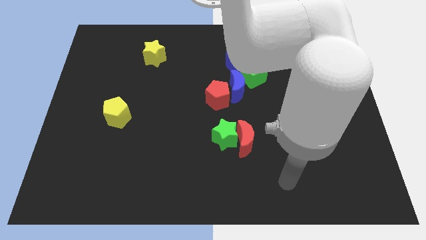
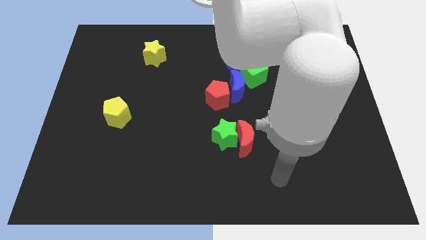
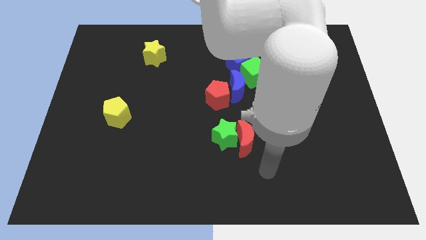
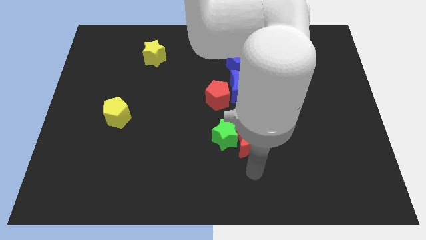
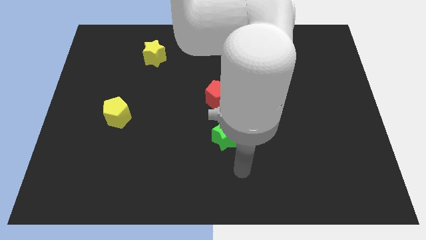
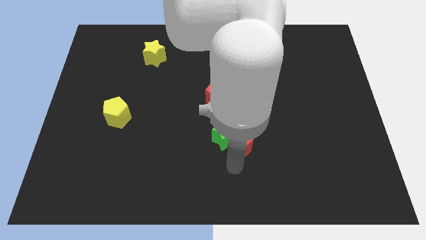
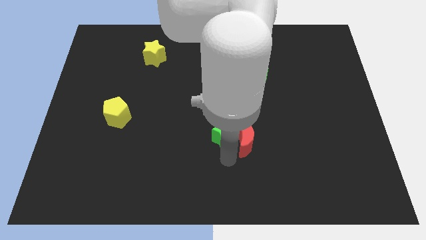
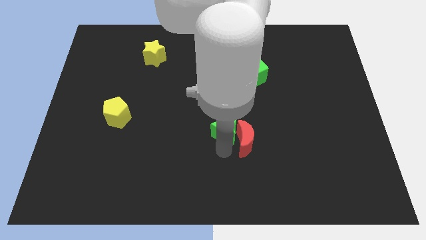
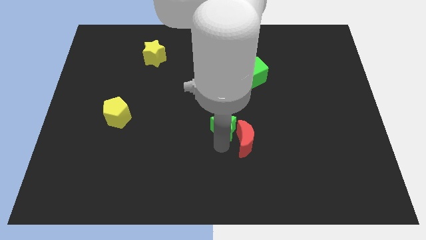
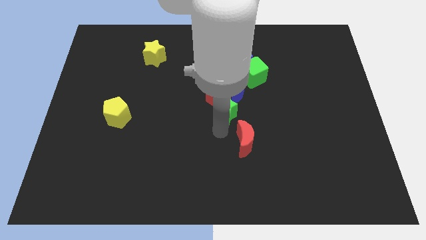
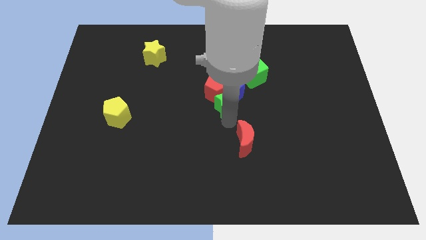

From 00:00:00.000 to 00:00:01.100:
pull the red moon apart from the green star

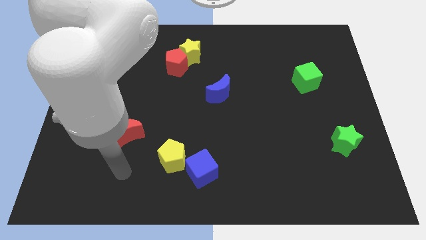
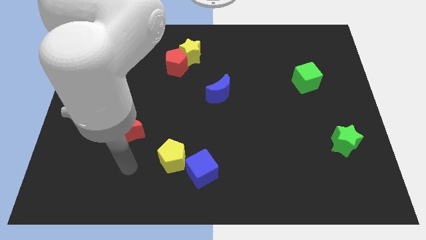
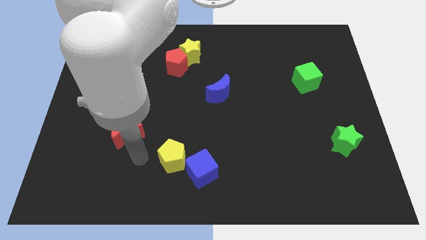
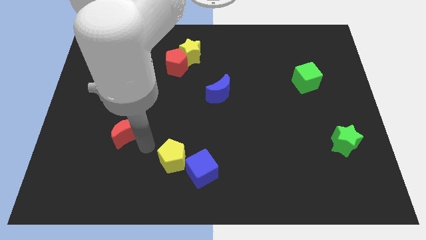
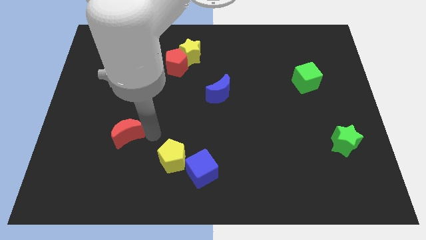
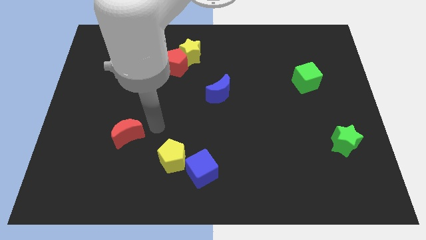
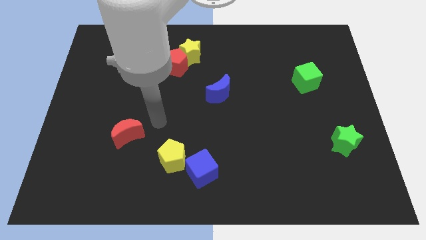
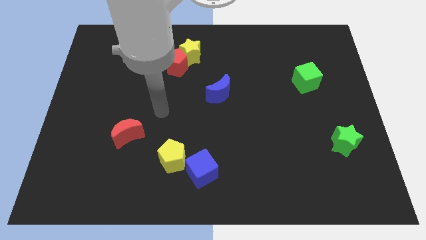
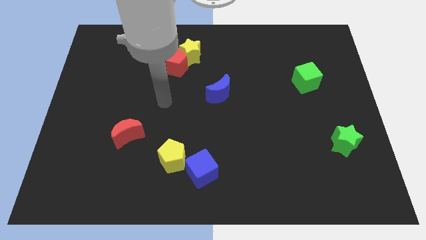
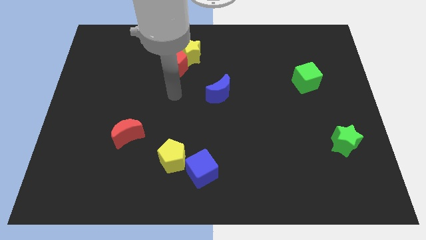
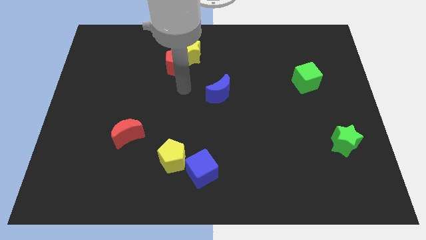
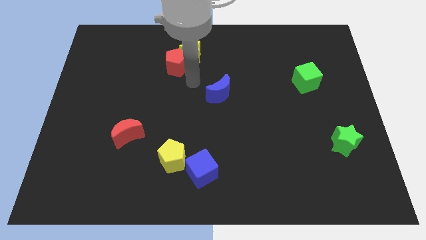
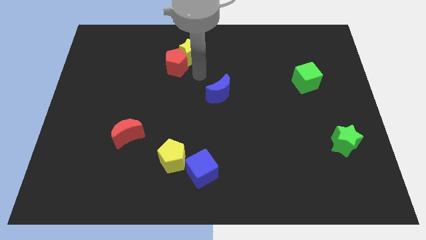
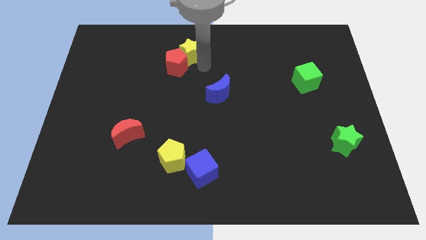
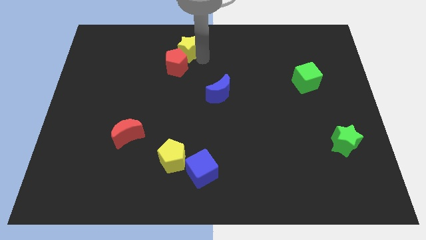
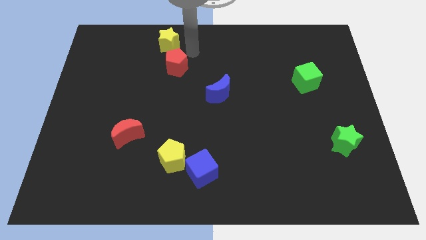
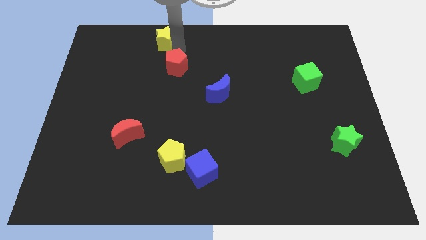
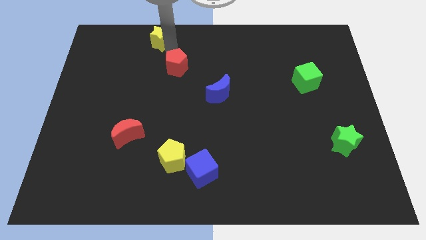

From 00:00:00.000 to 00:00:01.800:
separate the red pentagon from the yellow star

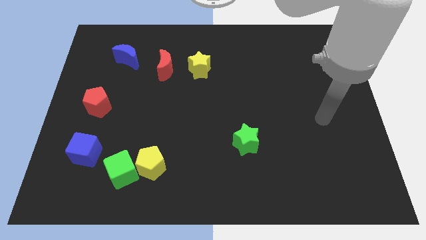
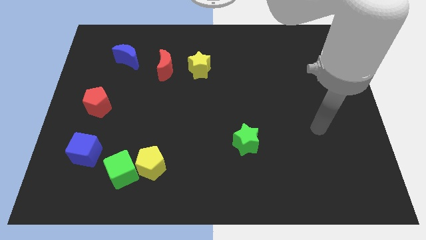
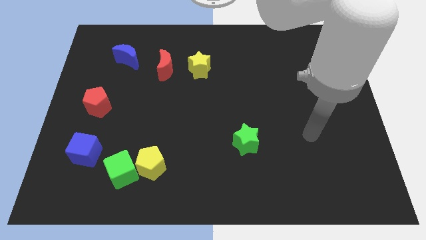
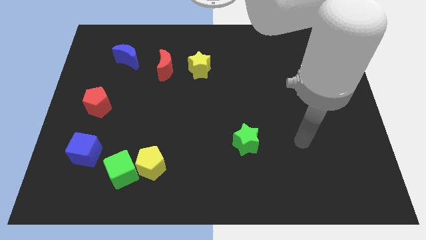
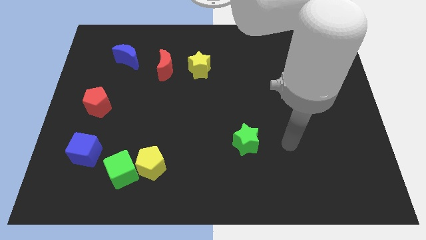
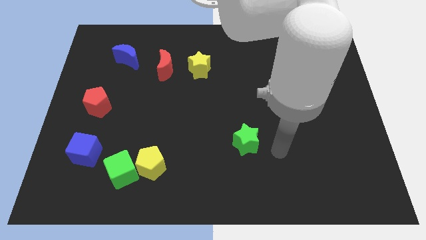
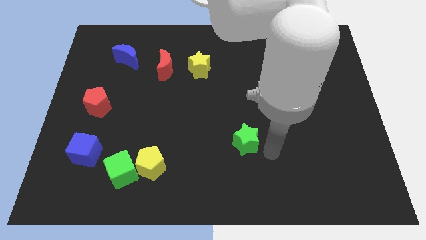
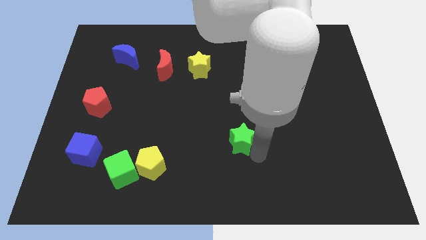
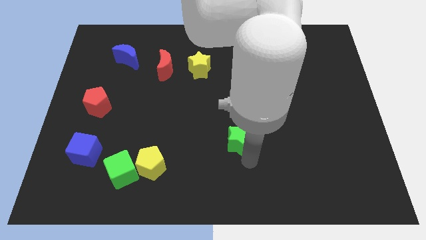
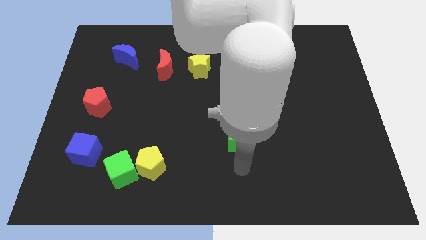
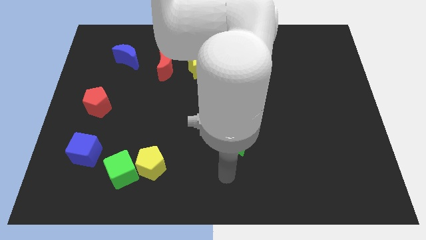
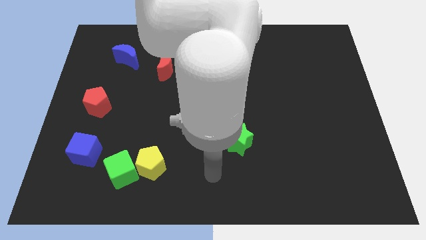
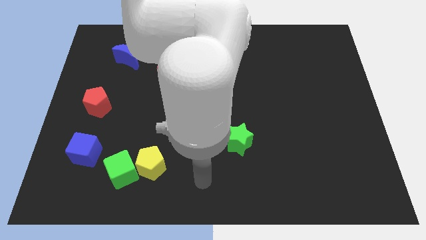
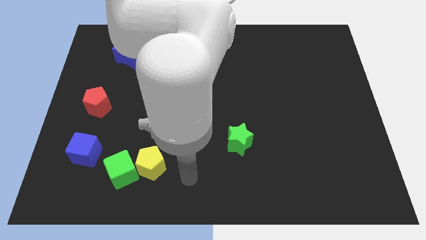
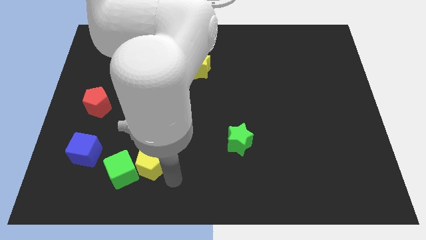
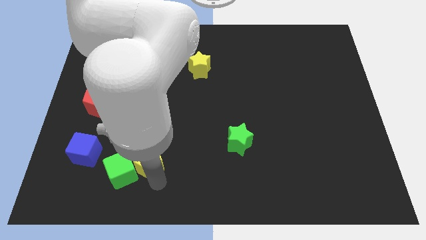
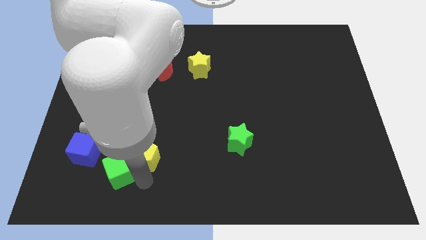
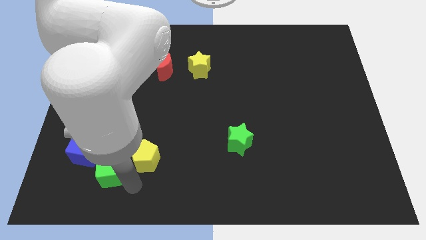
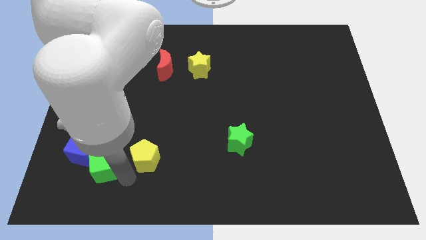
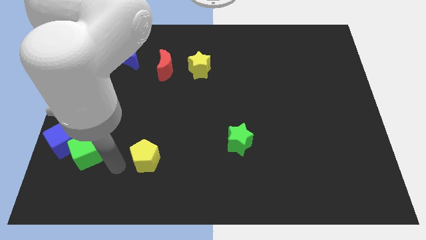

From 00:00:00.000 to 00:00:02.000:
move the yellow pentagon away from the green cube

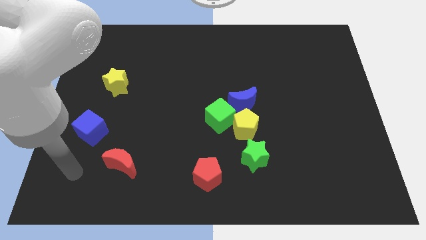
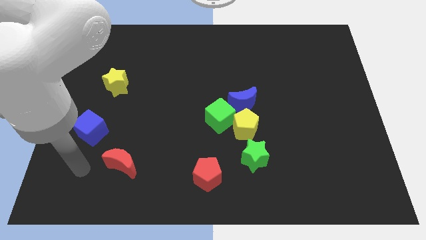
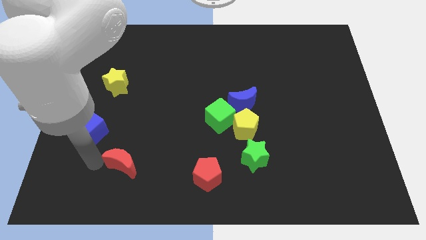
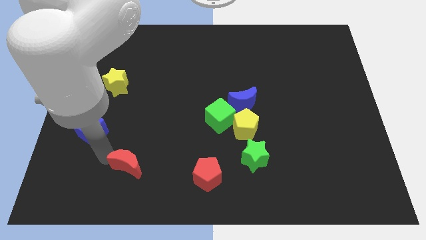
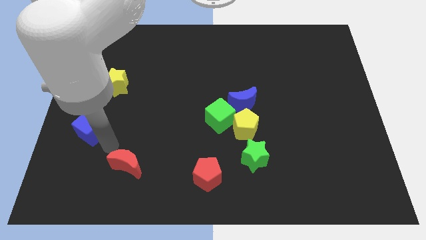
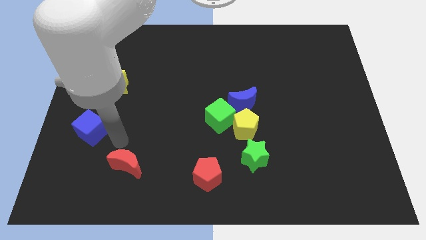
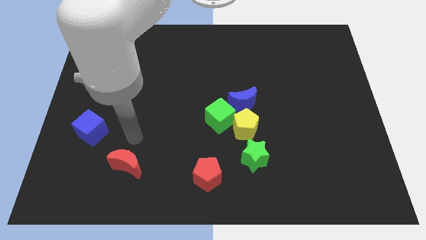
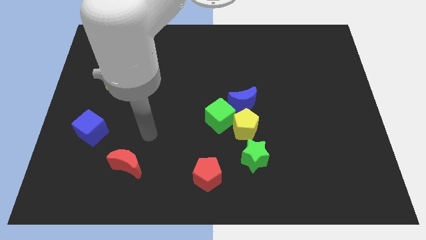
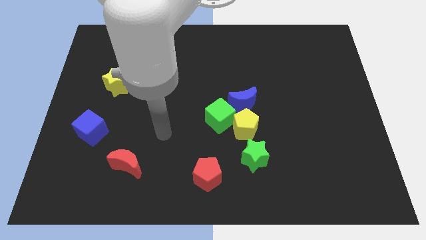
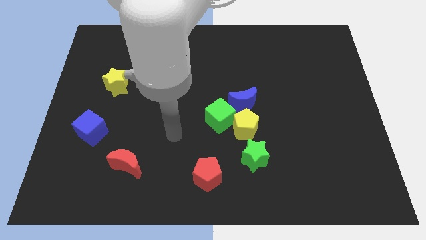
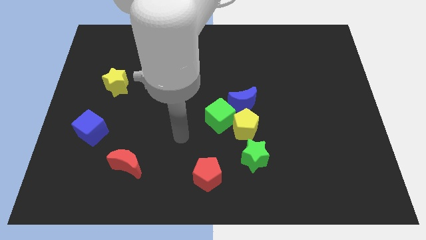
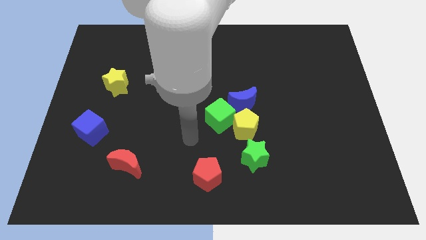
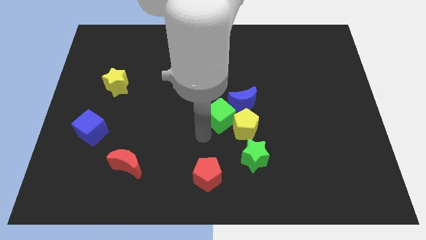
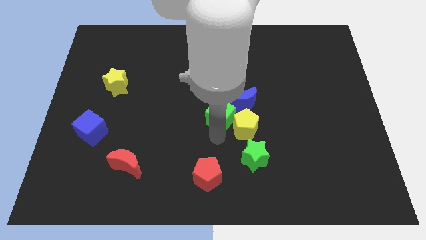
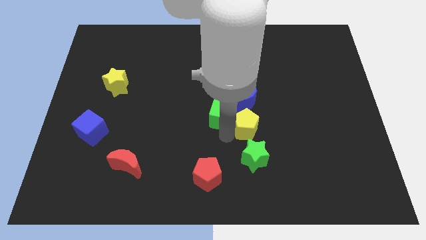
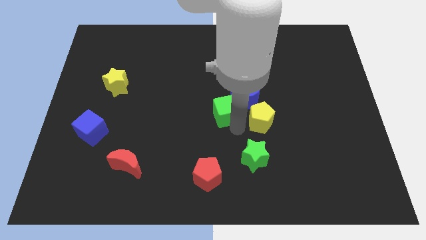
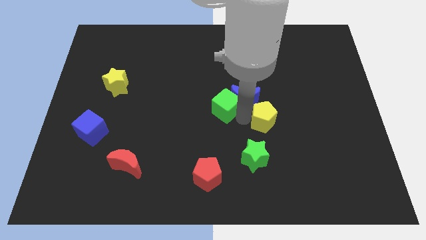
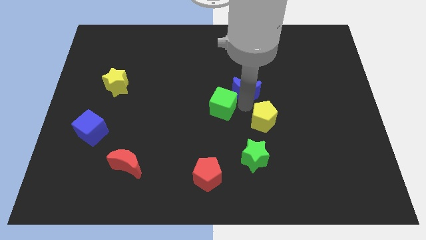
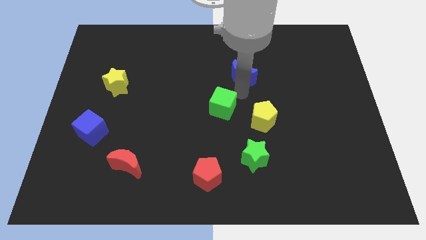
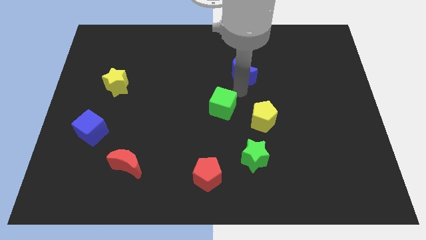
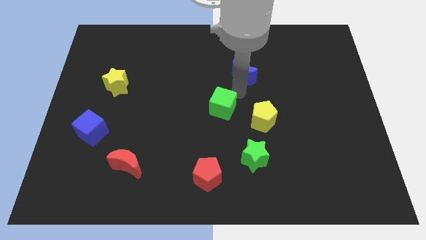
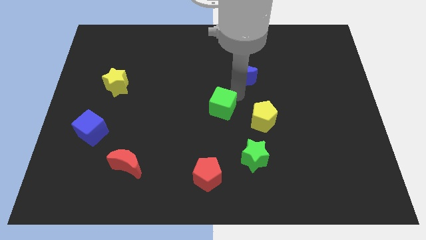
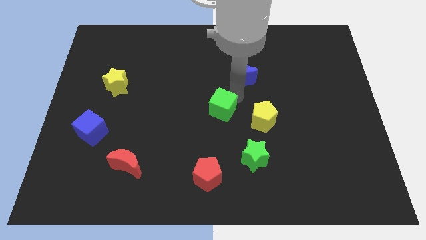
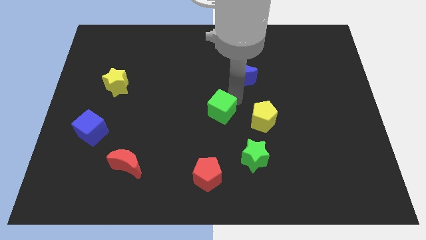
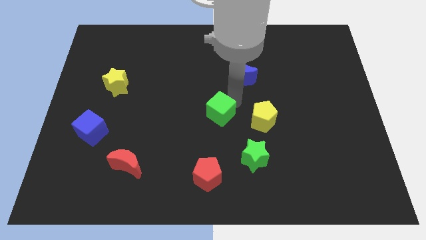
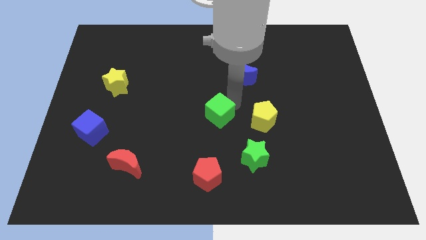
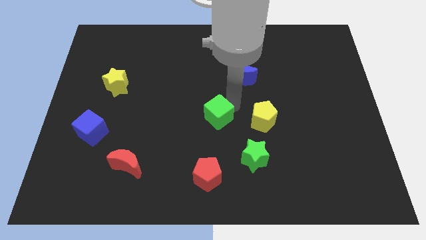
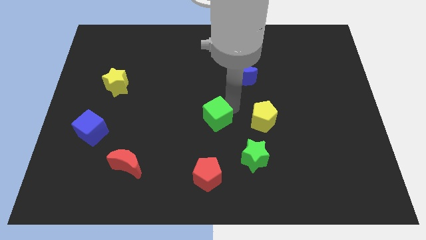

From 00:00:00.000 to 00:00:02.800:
separate the green cube from the yellow pentagon and blue moon

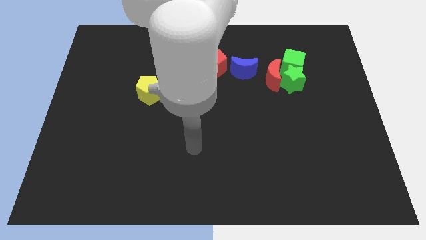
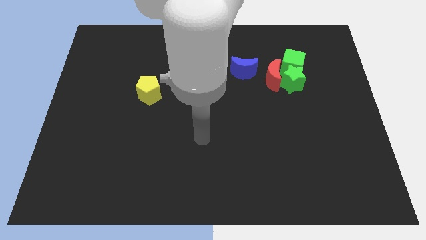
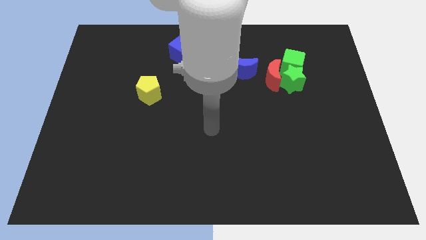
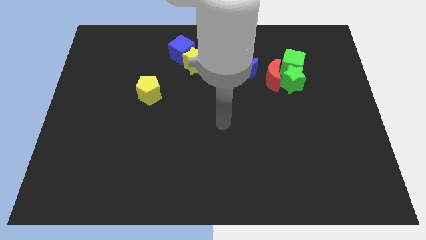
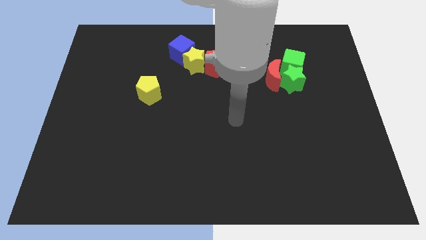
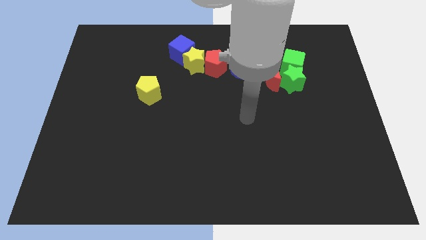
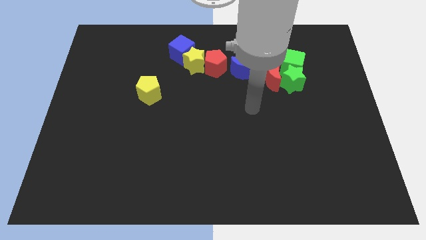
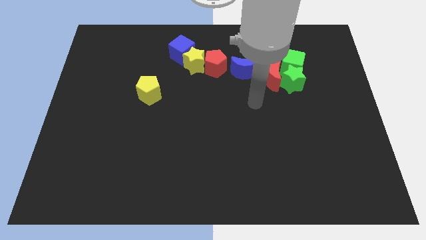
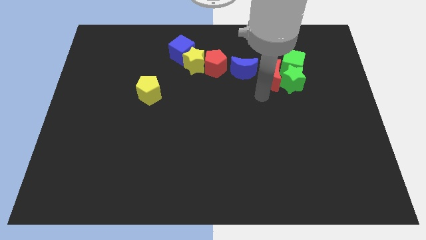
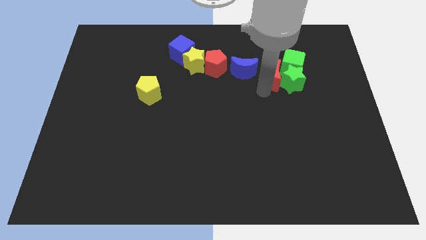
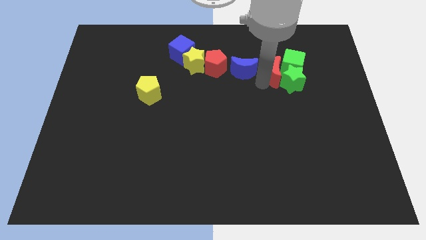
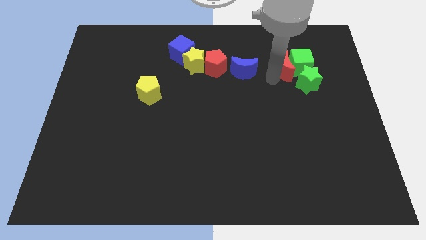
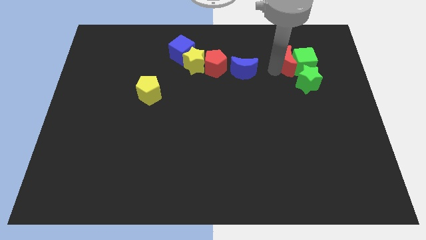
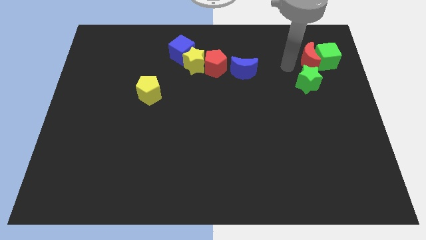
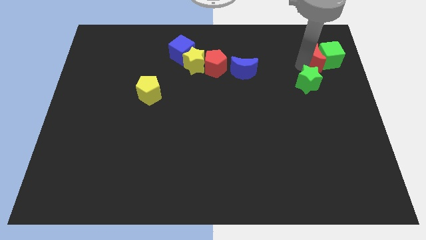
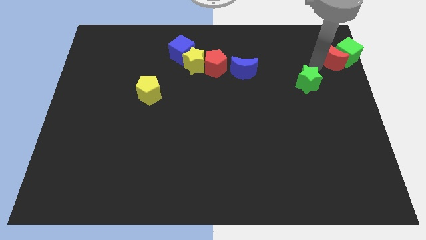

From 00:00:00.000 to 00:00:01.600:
pull the green star apart from the red moon and green cube

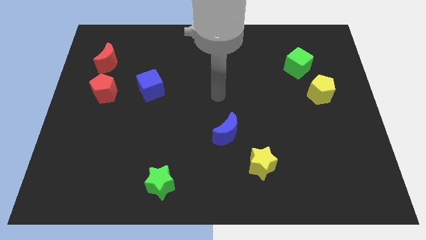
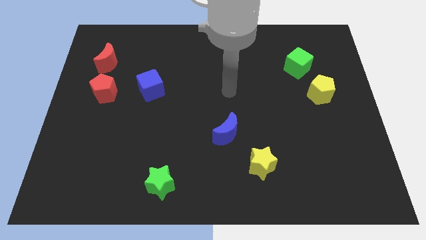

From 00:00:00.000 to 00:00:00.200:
move the green cube away from the yellow pentagon
